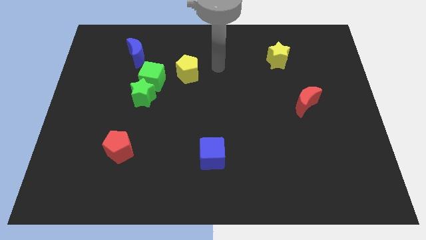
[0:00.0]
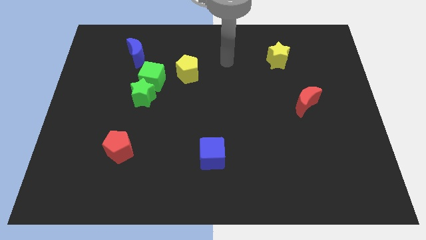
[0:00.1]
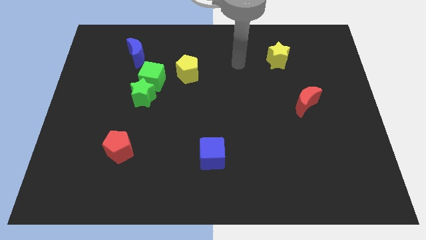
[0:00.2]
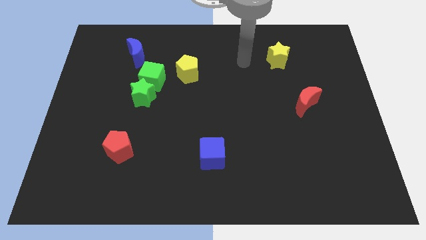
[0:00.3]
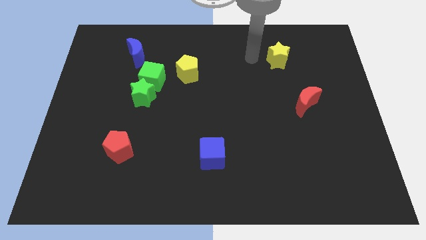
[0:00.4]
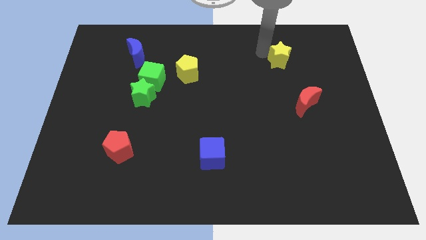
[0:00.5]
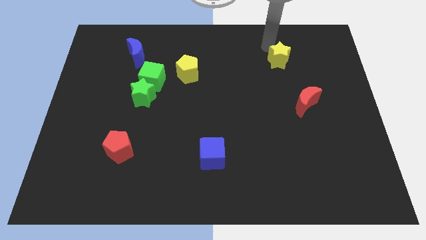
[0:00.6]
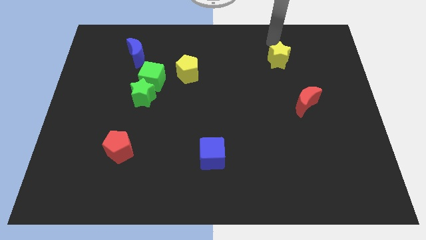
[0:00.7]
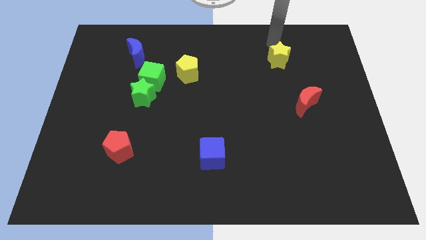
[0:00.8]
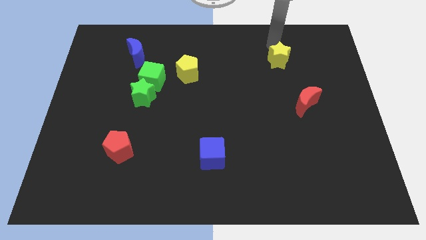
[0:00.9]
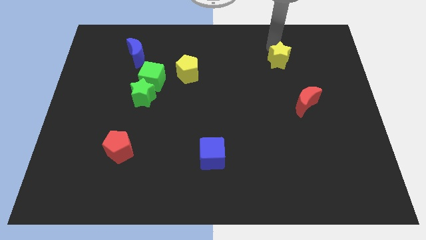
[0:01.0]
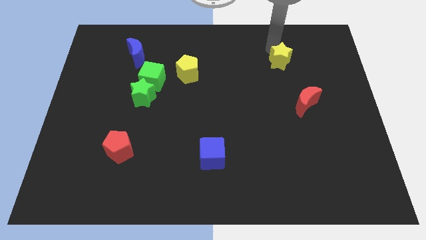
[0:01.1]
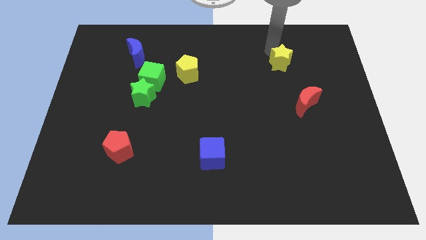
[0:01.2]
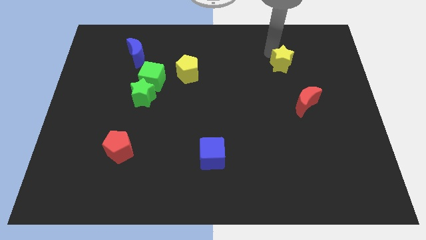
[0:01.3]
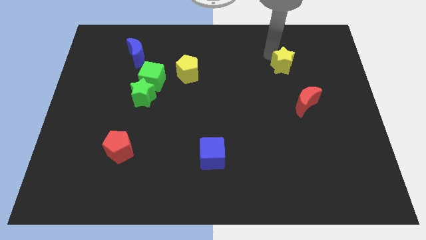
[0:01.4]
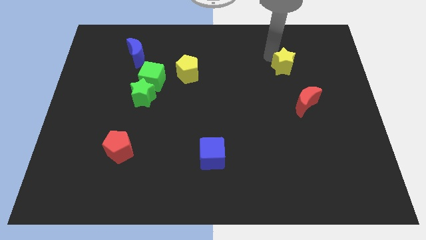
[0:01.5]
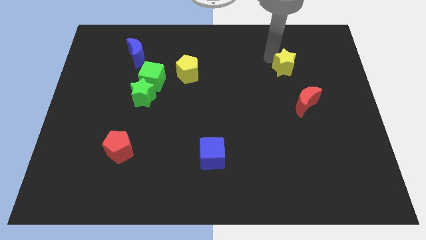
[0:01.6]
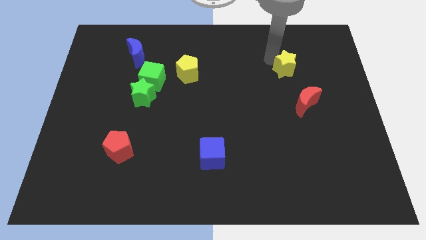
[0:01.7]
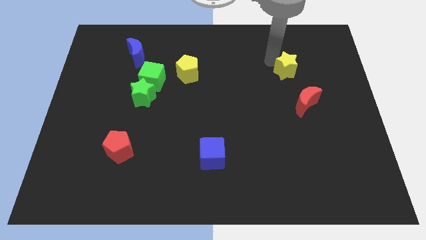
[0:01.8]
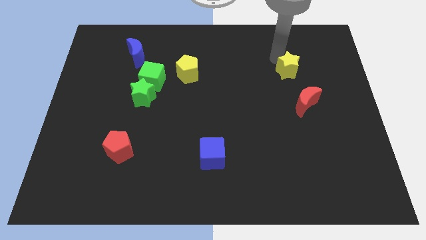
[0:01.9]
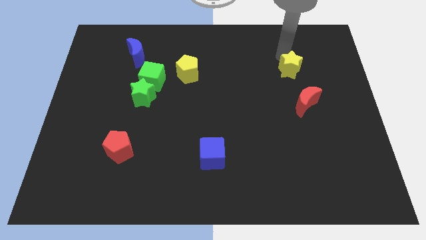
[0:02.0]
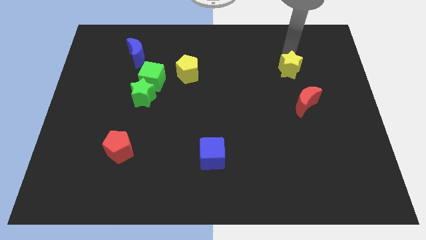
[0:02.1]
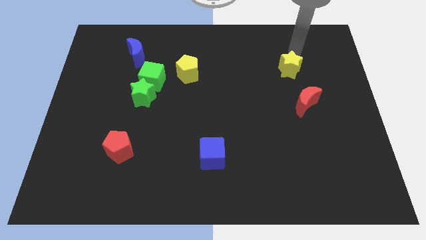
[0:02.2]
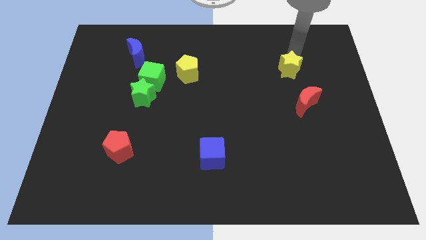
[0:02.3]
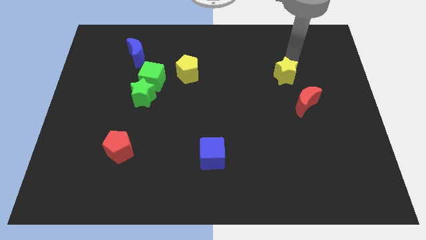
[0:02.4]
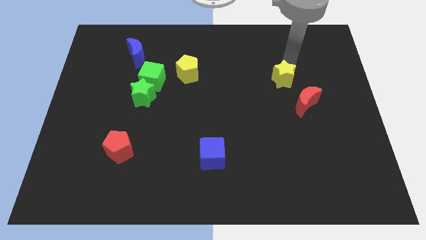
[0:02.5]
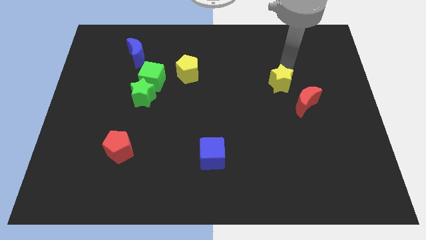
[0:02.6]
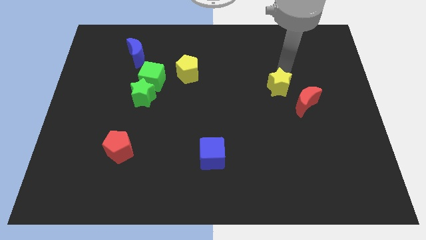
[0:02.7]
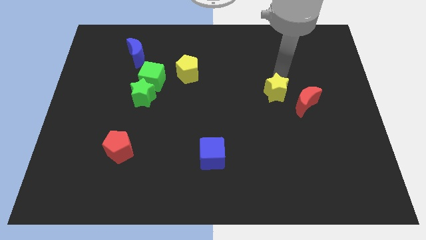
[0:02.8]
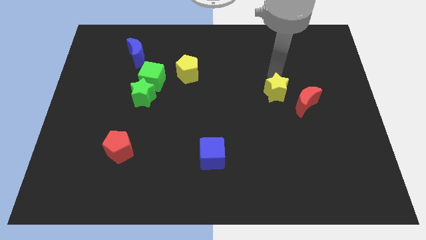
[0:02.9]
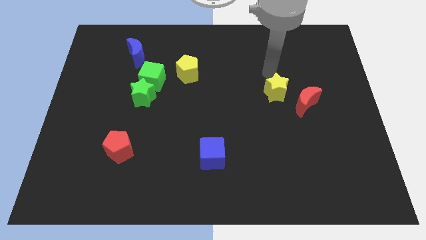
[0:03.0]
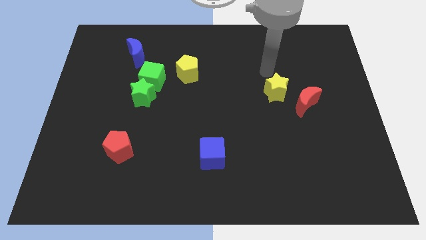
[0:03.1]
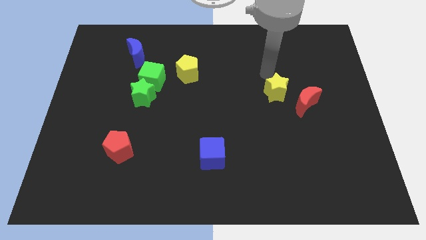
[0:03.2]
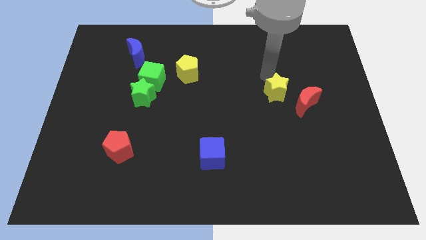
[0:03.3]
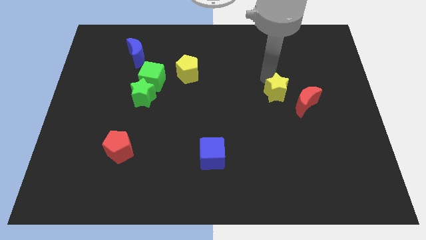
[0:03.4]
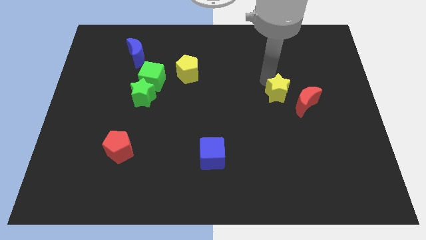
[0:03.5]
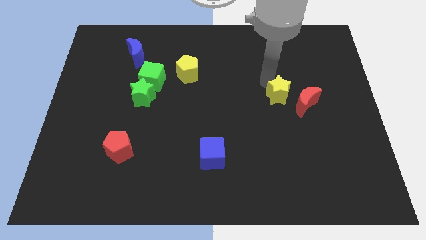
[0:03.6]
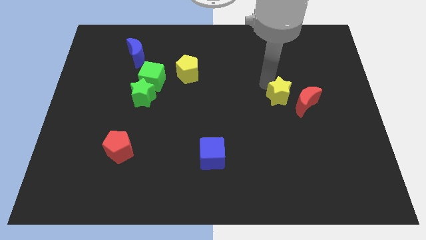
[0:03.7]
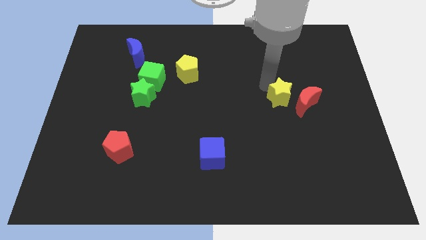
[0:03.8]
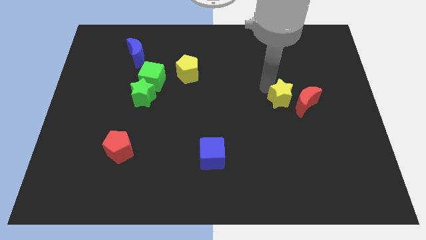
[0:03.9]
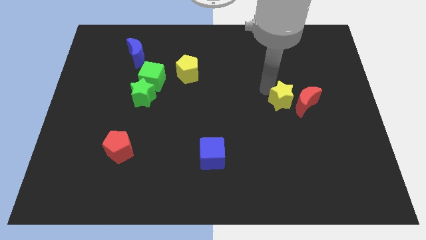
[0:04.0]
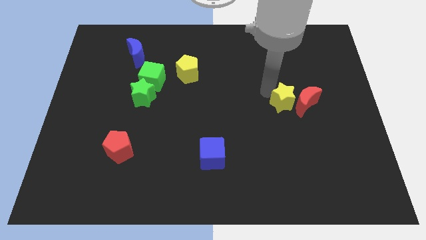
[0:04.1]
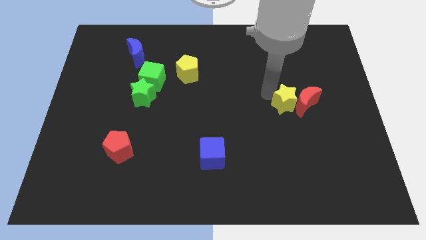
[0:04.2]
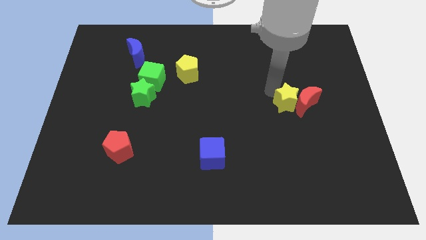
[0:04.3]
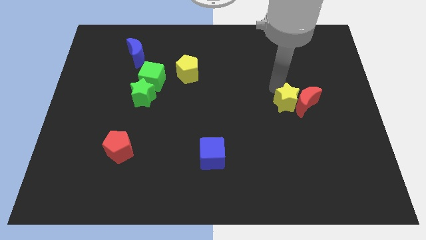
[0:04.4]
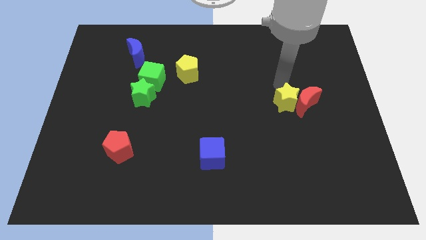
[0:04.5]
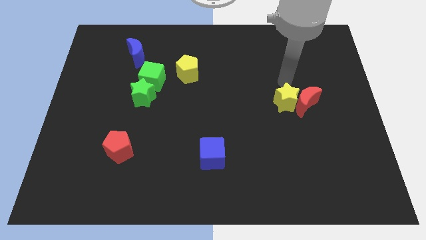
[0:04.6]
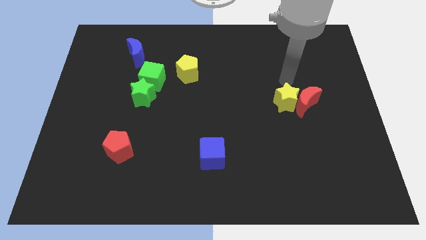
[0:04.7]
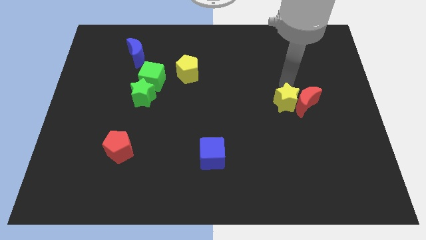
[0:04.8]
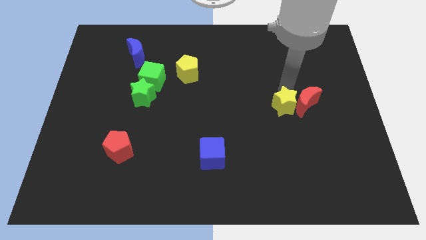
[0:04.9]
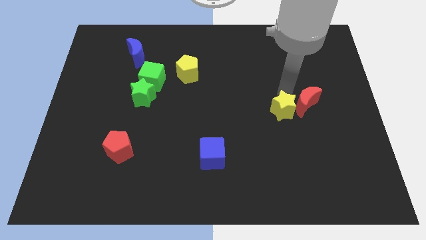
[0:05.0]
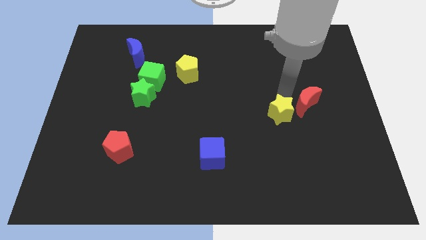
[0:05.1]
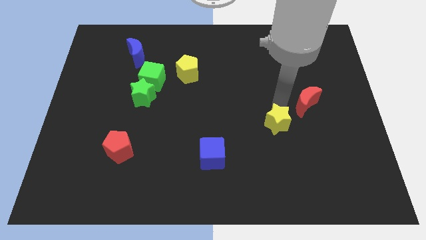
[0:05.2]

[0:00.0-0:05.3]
push the yellow star down

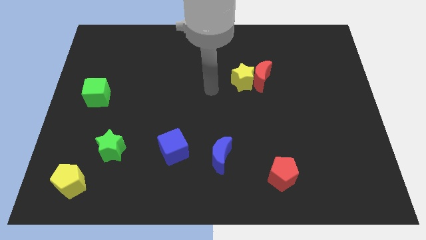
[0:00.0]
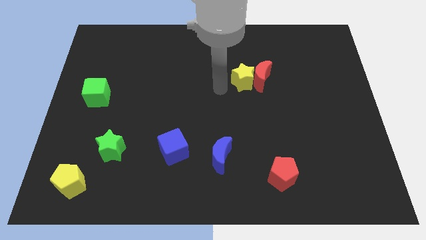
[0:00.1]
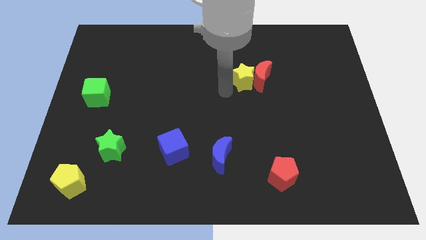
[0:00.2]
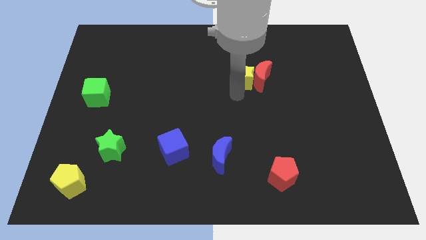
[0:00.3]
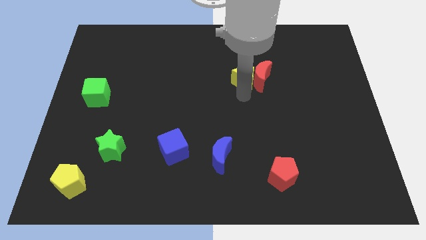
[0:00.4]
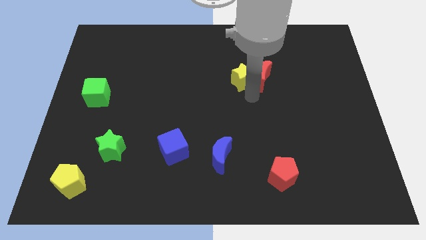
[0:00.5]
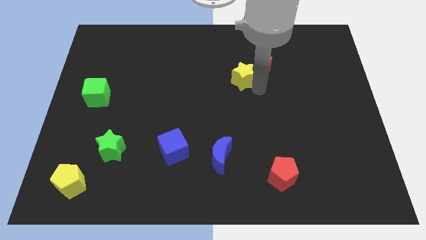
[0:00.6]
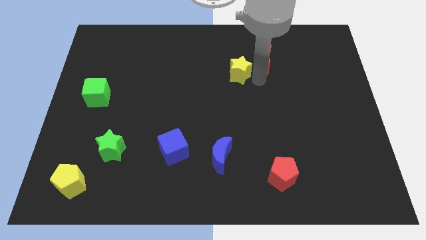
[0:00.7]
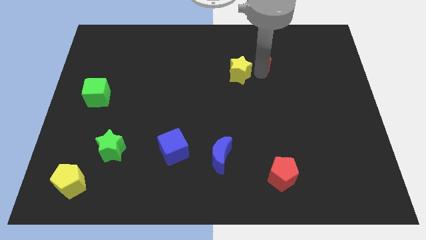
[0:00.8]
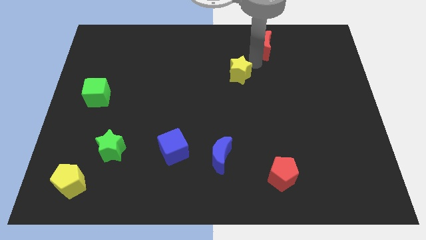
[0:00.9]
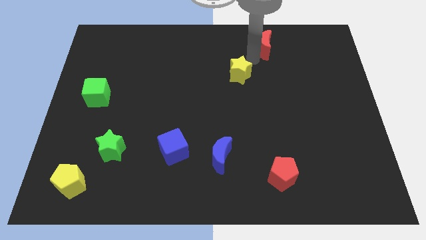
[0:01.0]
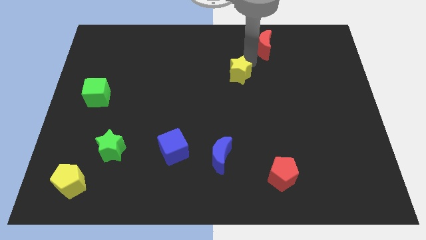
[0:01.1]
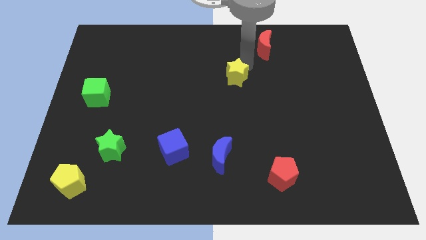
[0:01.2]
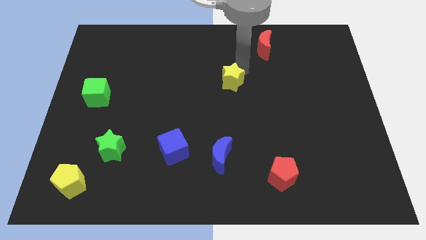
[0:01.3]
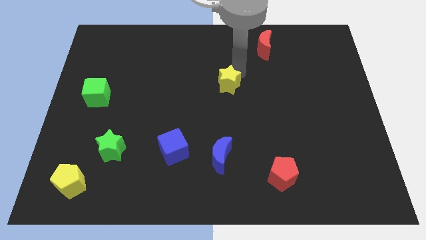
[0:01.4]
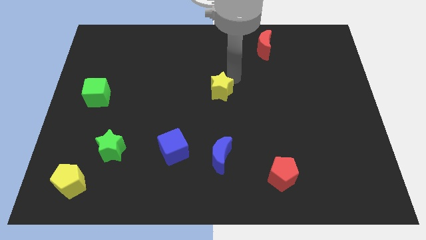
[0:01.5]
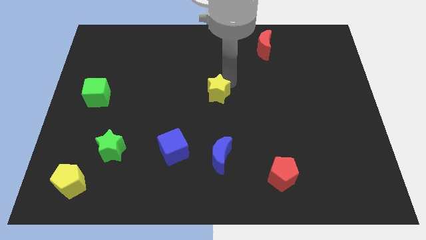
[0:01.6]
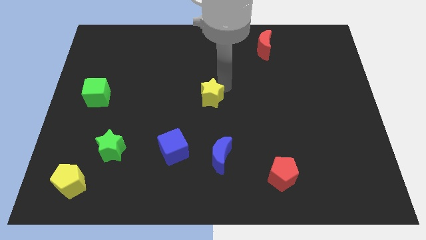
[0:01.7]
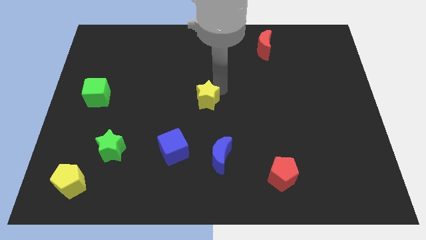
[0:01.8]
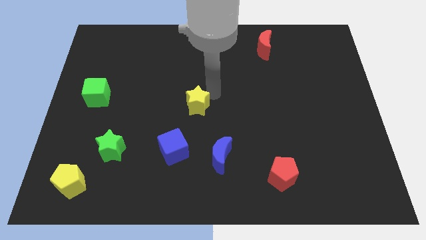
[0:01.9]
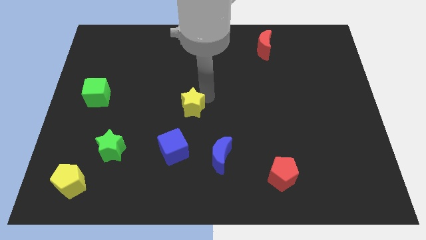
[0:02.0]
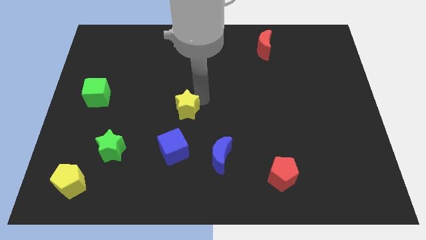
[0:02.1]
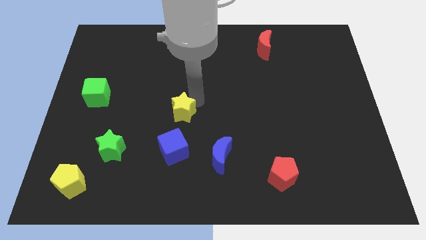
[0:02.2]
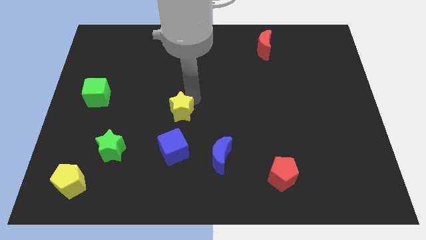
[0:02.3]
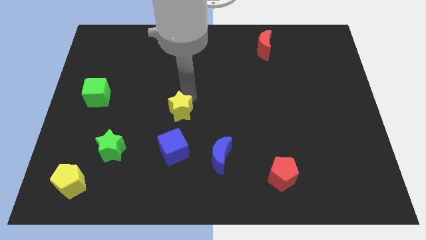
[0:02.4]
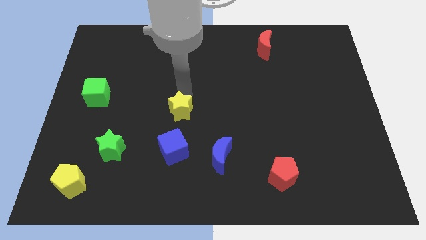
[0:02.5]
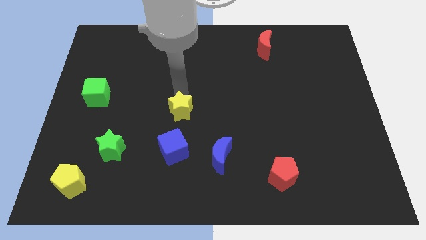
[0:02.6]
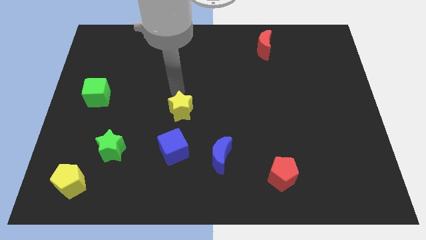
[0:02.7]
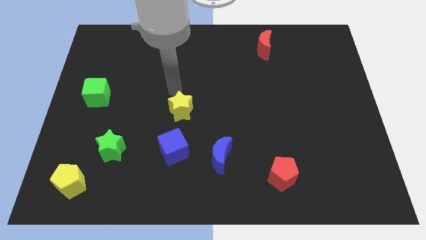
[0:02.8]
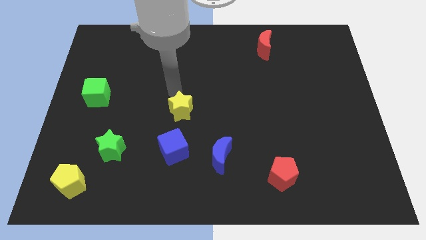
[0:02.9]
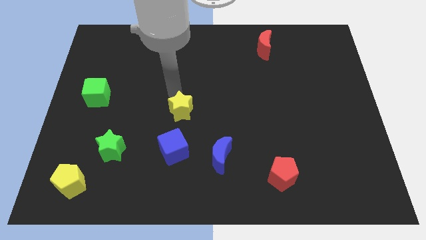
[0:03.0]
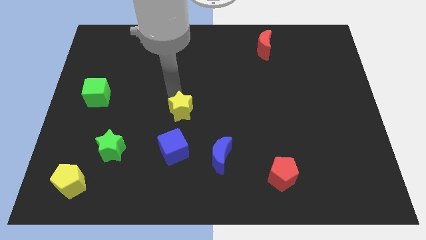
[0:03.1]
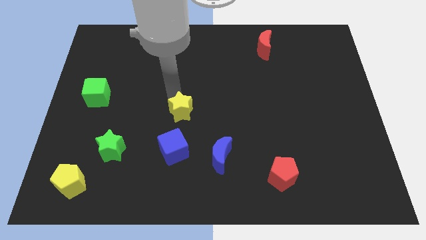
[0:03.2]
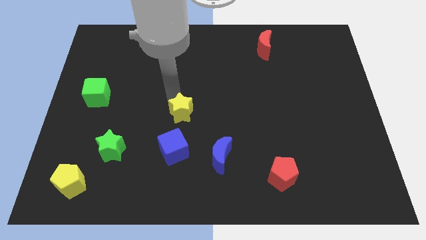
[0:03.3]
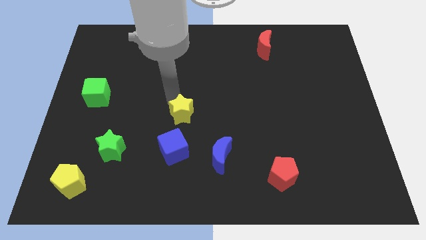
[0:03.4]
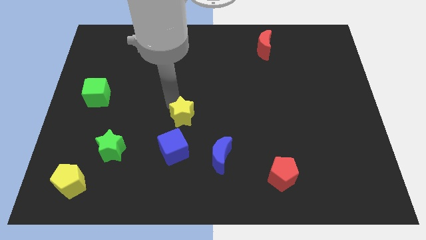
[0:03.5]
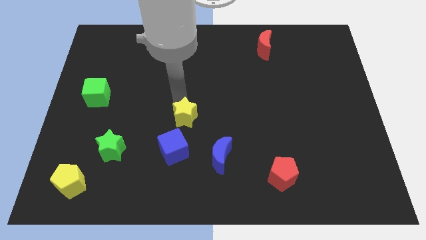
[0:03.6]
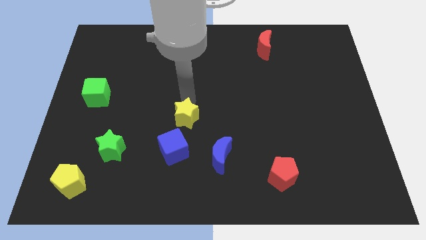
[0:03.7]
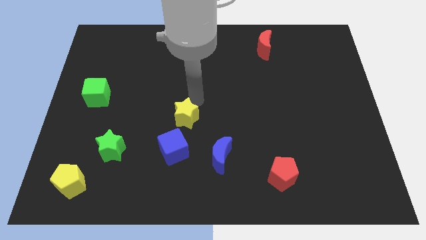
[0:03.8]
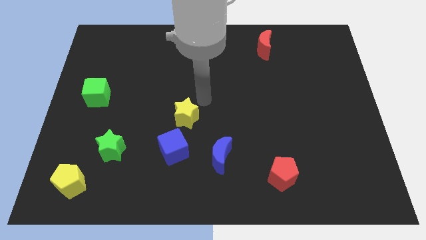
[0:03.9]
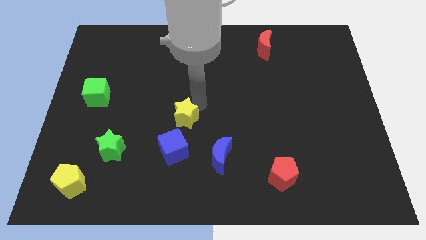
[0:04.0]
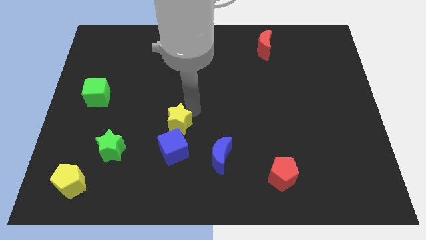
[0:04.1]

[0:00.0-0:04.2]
push the yellow star down and then left
